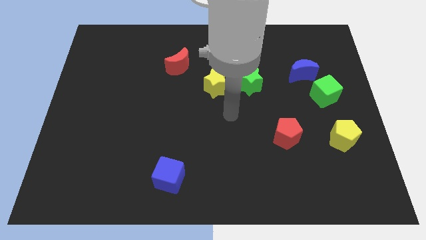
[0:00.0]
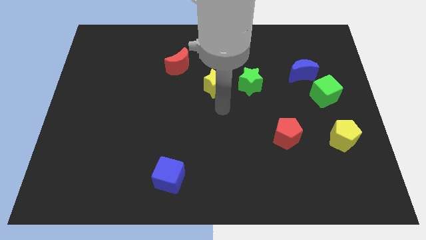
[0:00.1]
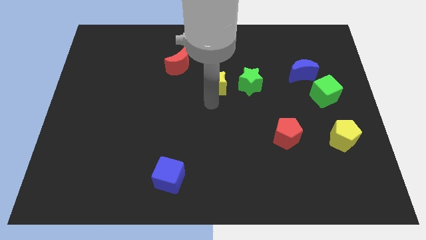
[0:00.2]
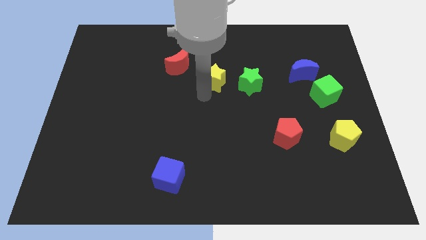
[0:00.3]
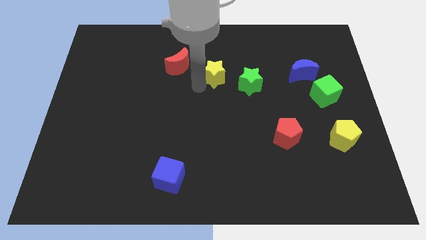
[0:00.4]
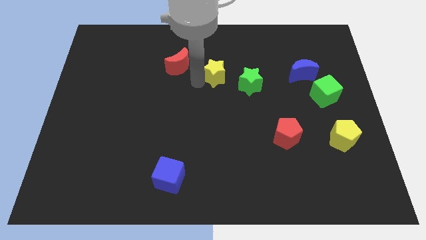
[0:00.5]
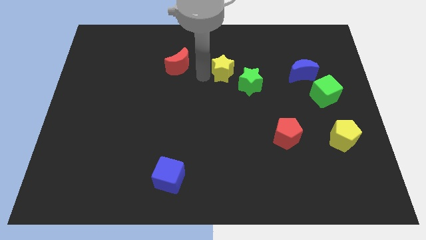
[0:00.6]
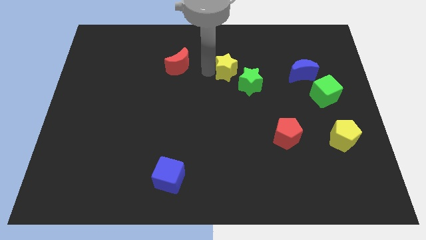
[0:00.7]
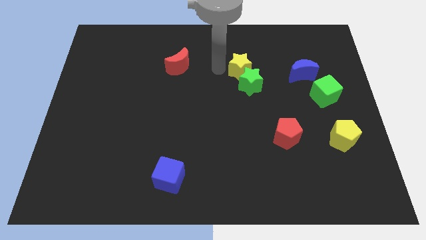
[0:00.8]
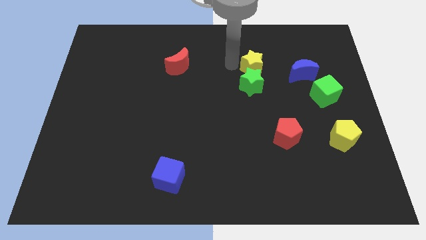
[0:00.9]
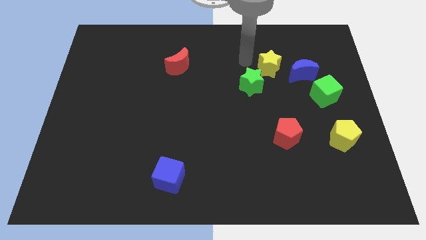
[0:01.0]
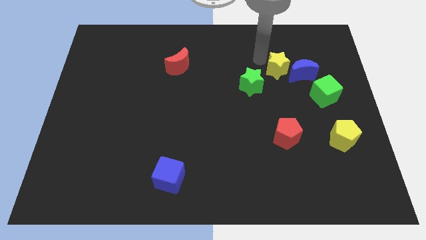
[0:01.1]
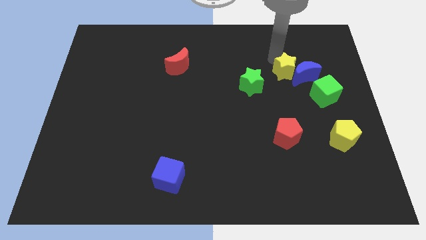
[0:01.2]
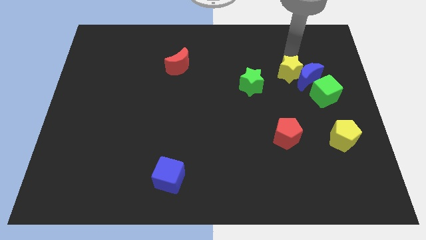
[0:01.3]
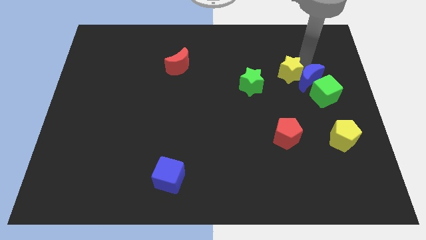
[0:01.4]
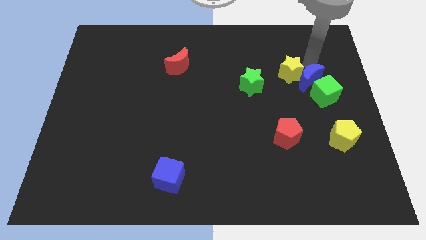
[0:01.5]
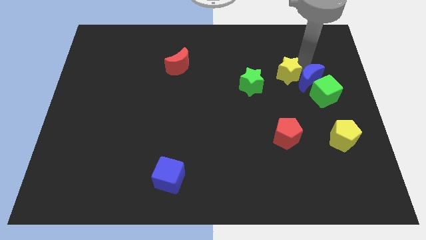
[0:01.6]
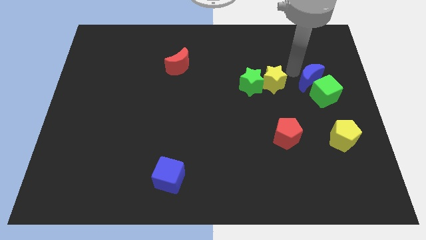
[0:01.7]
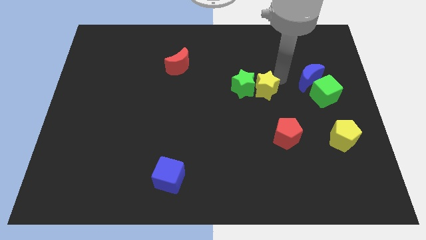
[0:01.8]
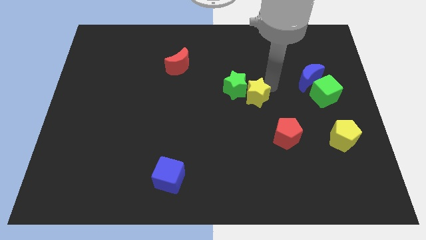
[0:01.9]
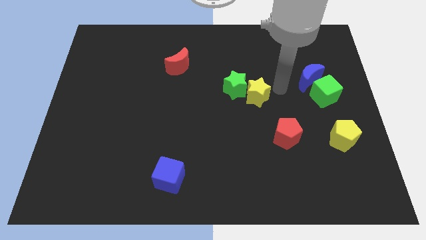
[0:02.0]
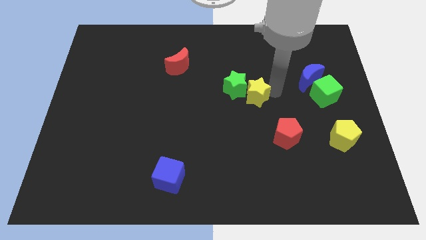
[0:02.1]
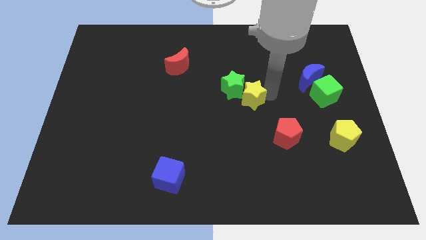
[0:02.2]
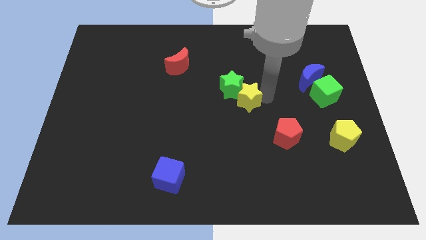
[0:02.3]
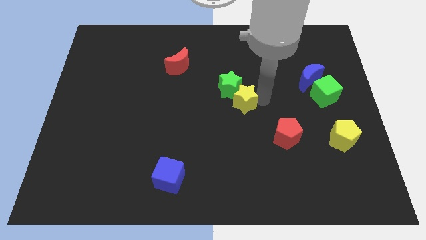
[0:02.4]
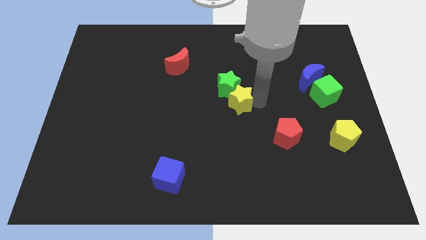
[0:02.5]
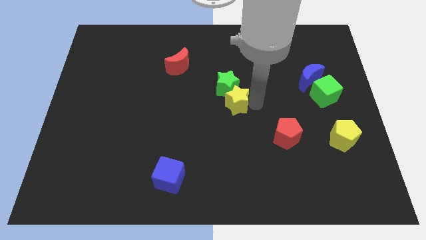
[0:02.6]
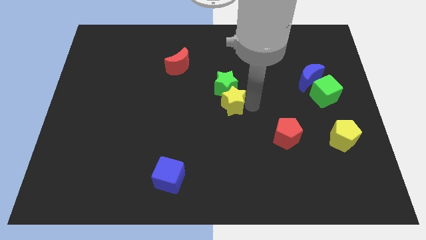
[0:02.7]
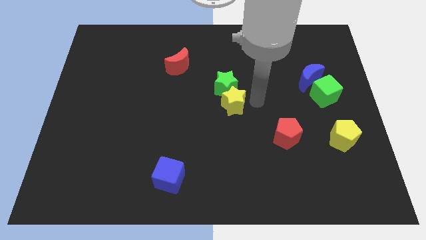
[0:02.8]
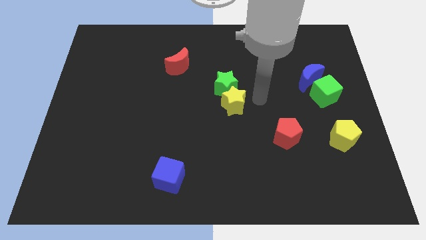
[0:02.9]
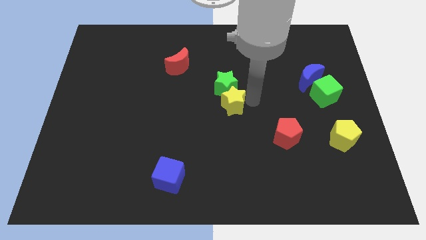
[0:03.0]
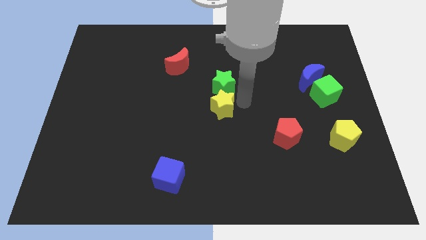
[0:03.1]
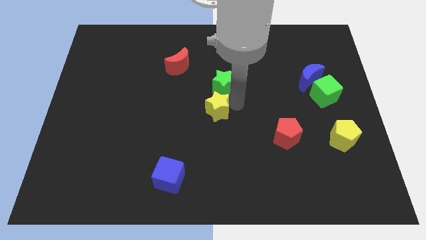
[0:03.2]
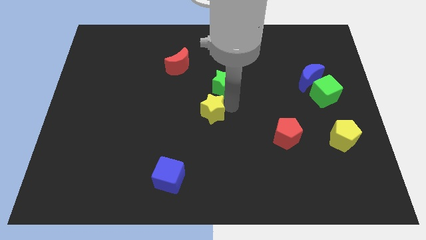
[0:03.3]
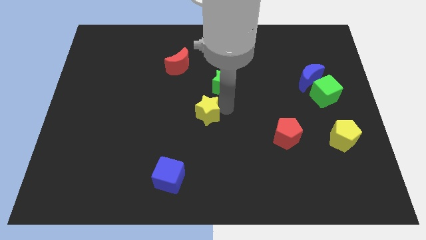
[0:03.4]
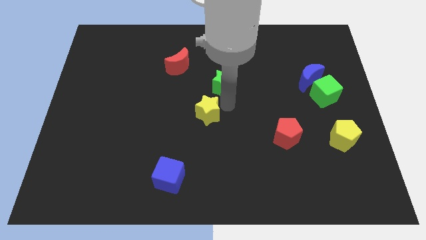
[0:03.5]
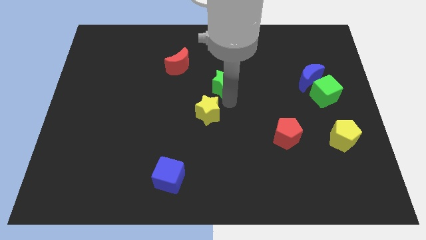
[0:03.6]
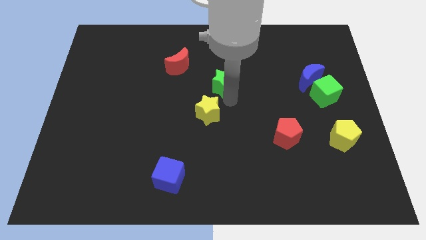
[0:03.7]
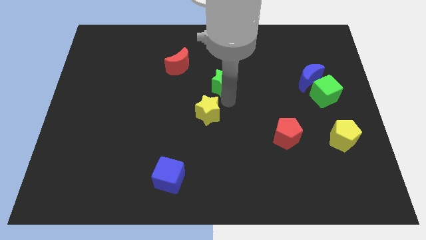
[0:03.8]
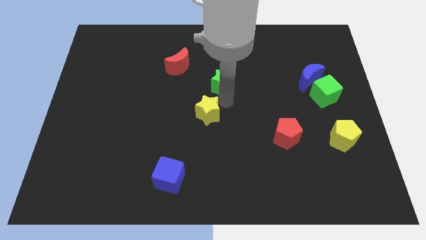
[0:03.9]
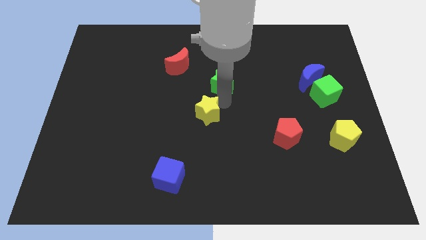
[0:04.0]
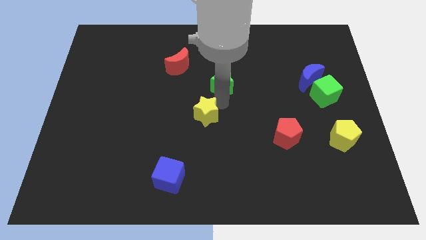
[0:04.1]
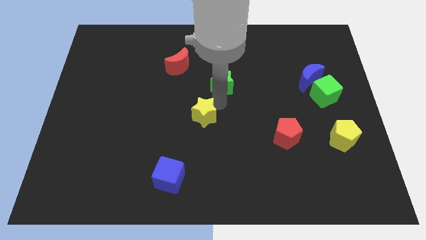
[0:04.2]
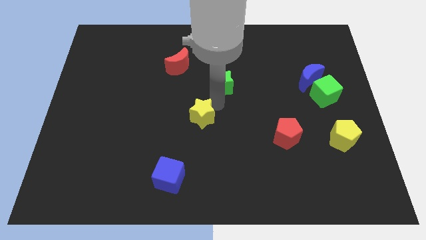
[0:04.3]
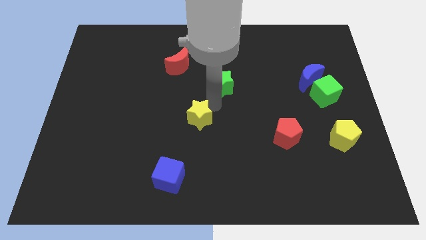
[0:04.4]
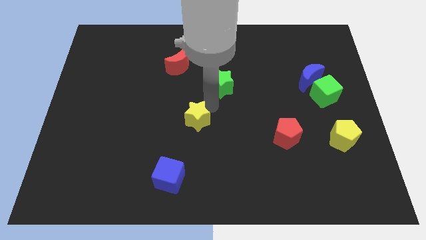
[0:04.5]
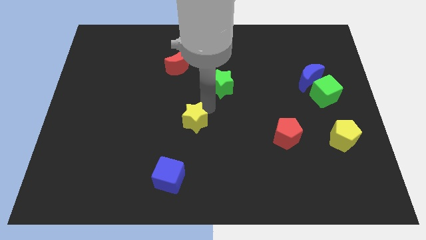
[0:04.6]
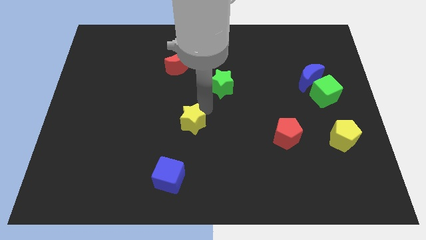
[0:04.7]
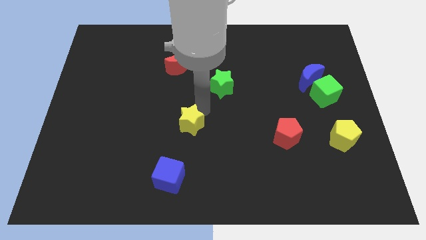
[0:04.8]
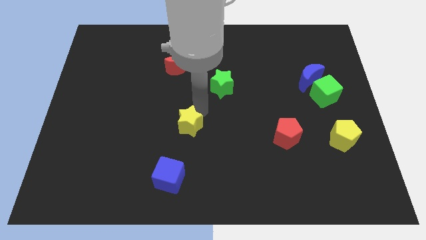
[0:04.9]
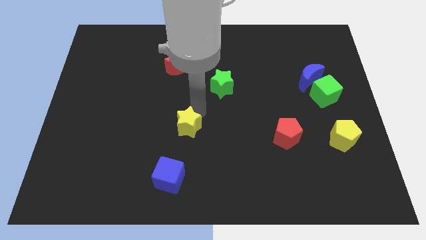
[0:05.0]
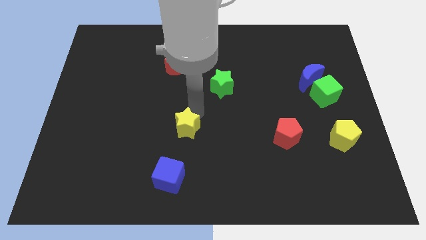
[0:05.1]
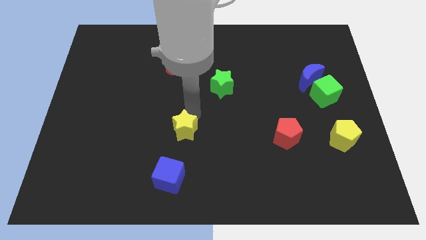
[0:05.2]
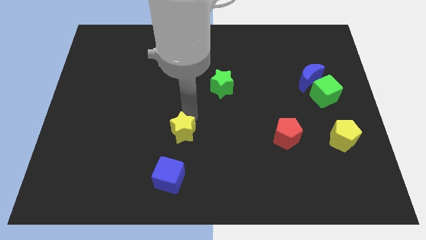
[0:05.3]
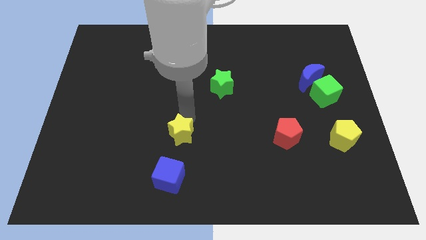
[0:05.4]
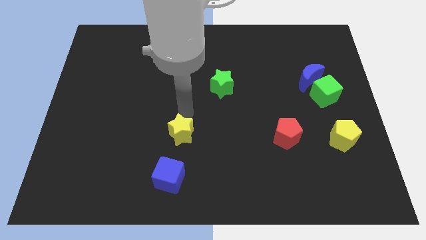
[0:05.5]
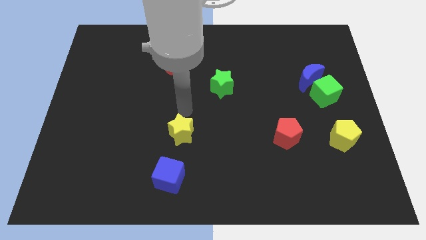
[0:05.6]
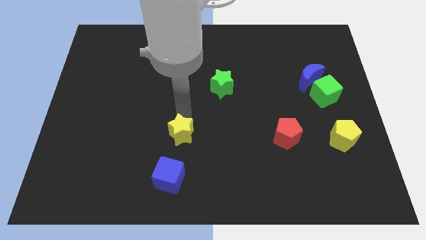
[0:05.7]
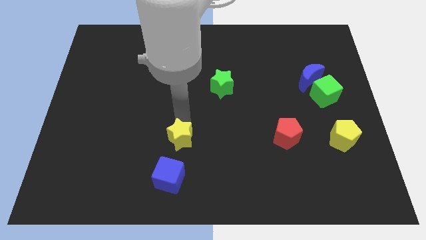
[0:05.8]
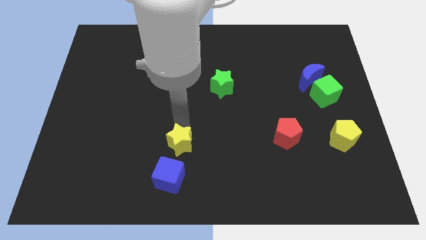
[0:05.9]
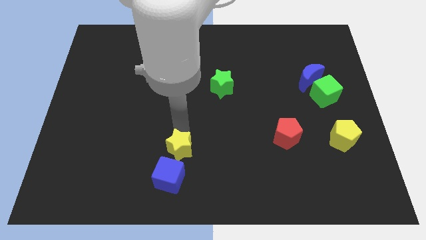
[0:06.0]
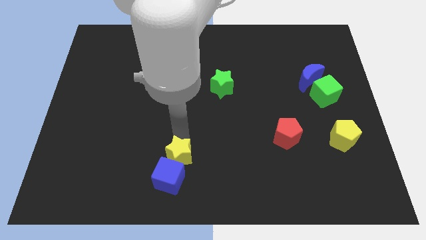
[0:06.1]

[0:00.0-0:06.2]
slide the yellow star close to the blue cube

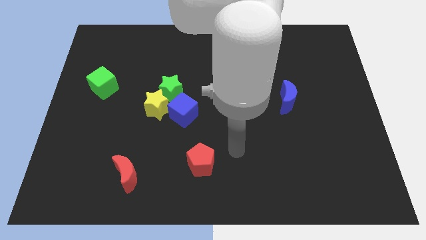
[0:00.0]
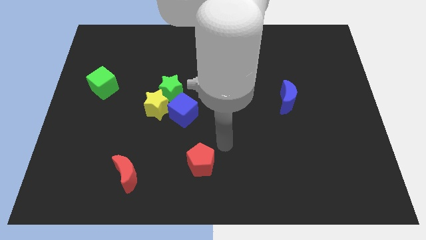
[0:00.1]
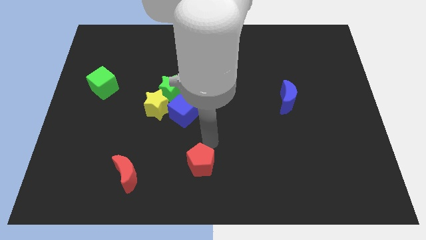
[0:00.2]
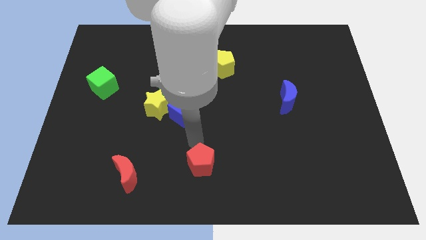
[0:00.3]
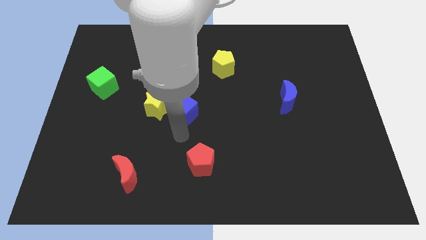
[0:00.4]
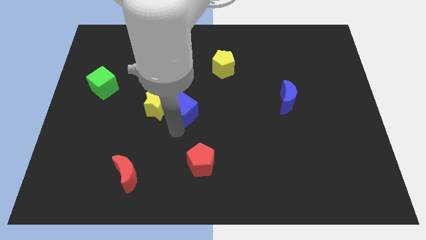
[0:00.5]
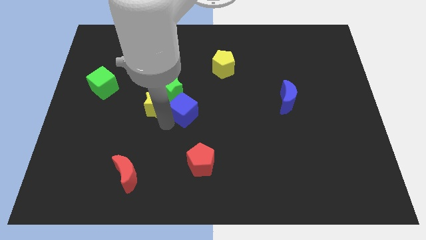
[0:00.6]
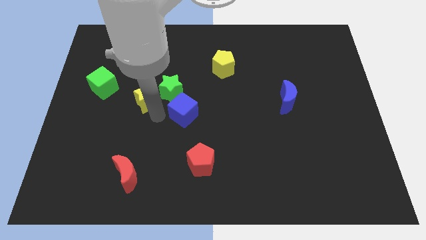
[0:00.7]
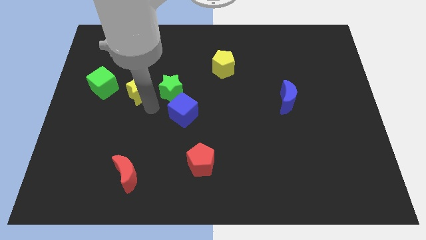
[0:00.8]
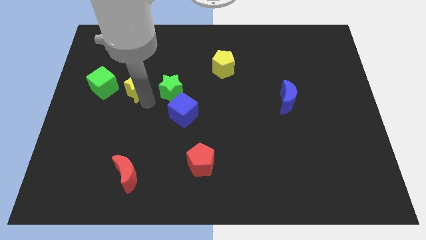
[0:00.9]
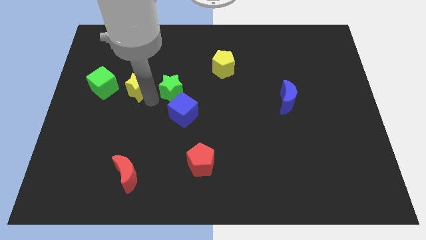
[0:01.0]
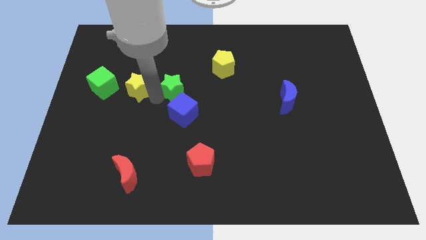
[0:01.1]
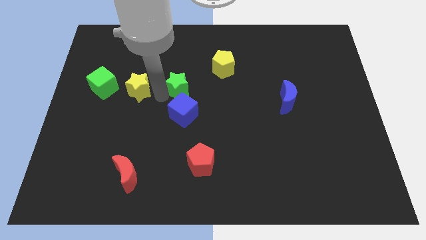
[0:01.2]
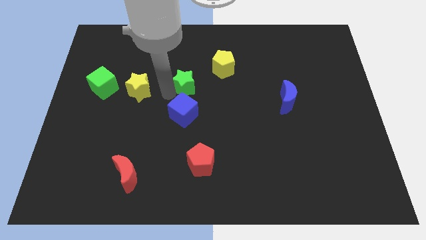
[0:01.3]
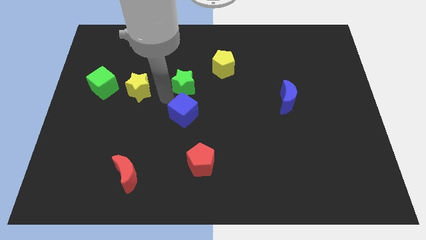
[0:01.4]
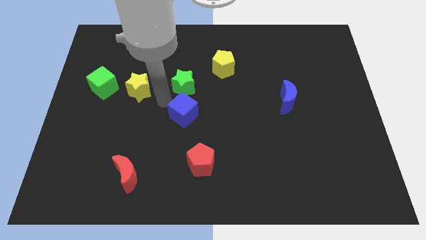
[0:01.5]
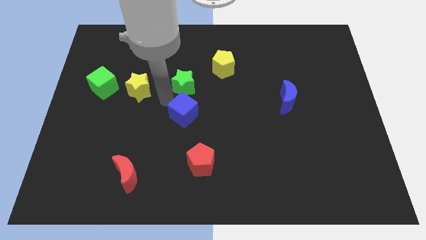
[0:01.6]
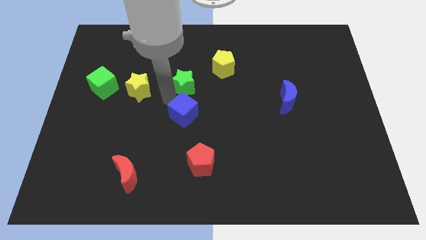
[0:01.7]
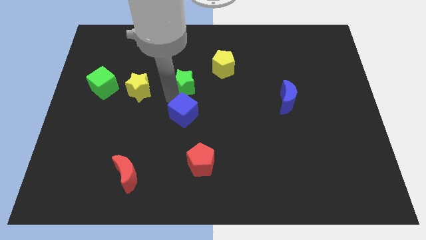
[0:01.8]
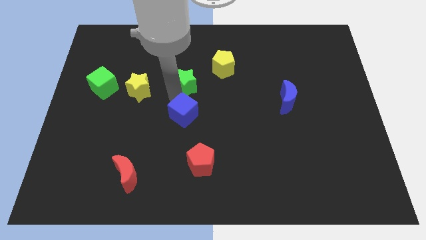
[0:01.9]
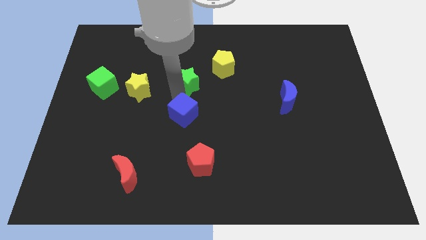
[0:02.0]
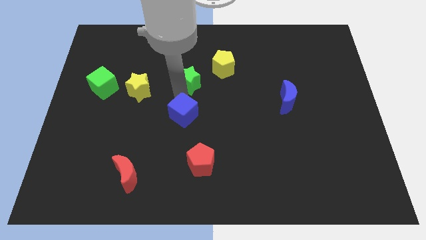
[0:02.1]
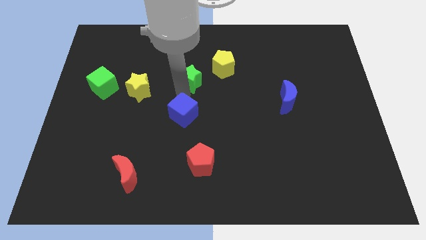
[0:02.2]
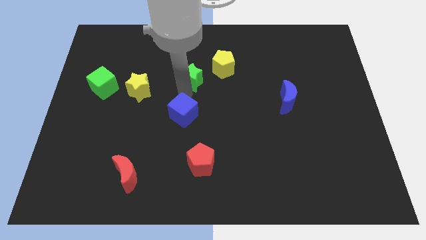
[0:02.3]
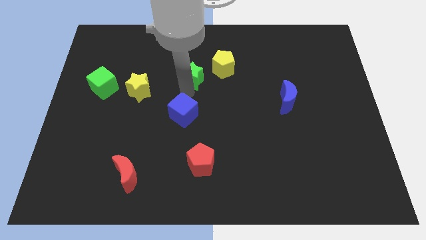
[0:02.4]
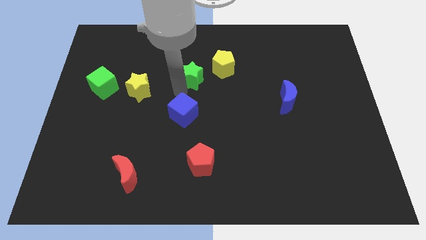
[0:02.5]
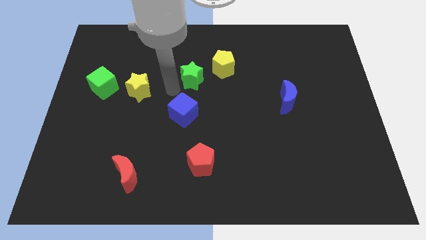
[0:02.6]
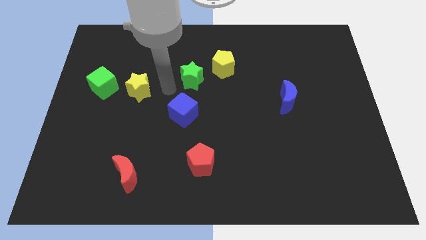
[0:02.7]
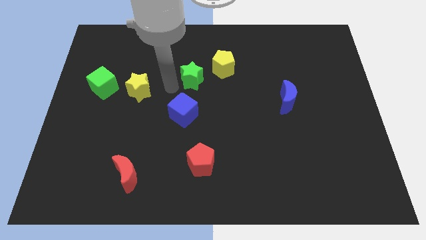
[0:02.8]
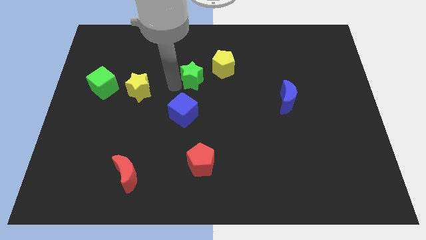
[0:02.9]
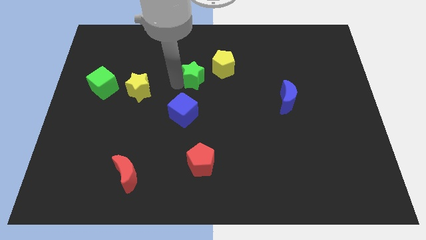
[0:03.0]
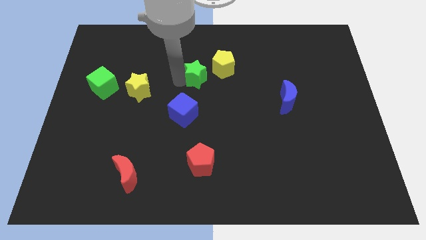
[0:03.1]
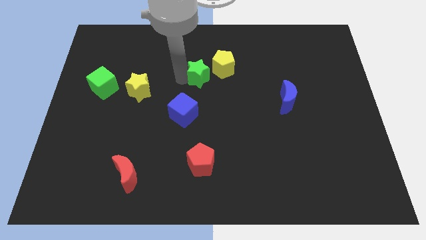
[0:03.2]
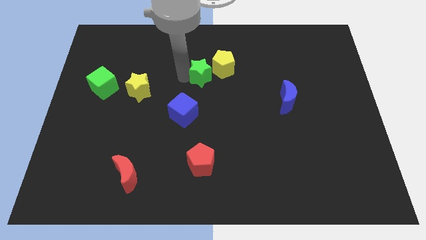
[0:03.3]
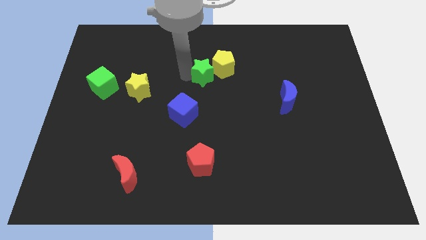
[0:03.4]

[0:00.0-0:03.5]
push the green star close to the yellow pentagon
